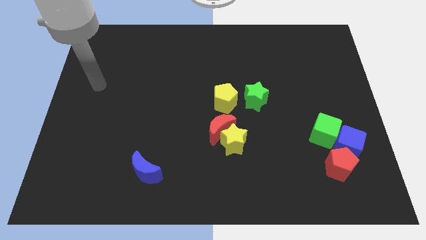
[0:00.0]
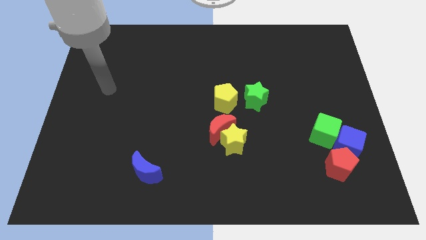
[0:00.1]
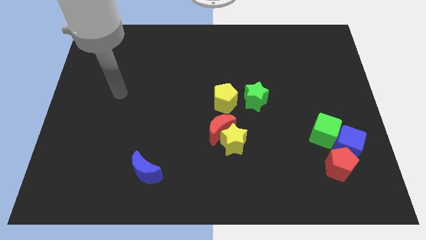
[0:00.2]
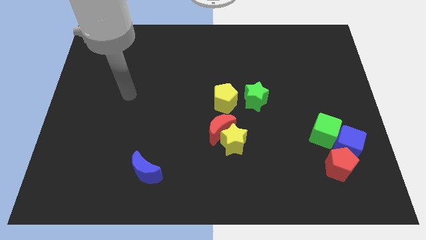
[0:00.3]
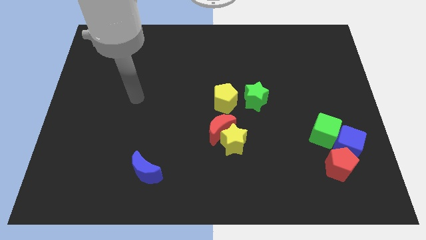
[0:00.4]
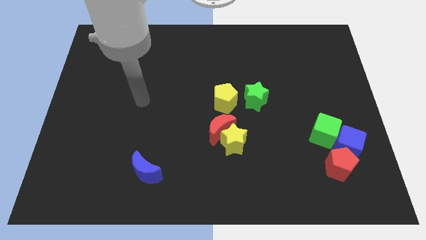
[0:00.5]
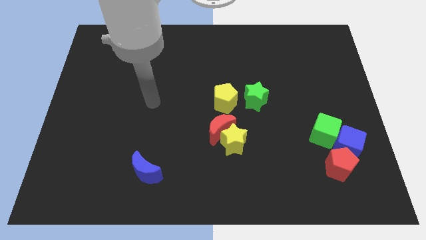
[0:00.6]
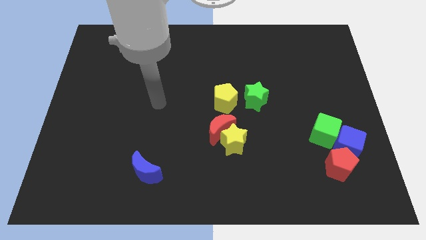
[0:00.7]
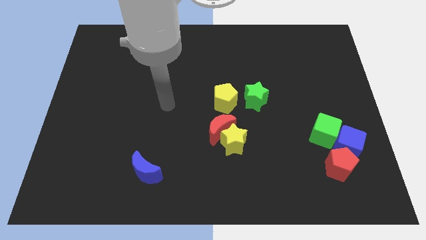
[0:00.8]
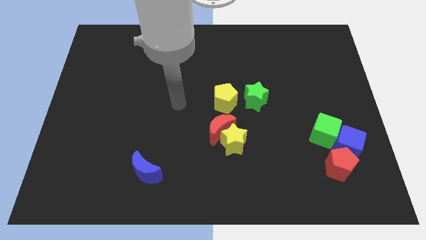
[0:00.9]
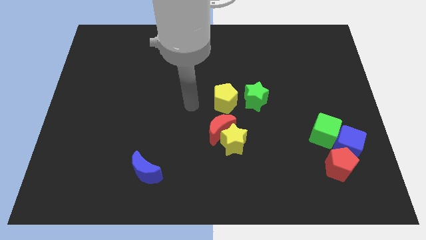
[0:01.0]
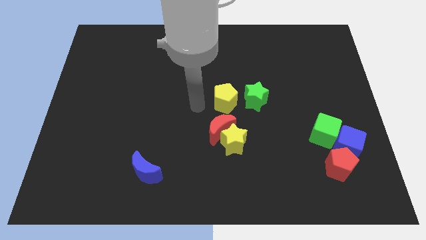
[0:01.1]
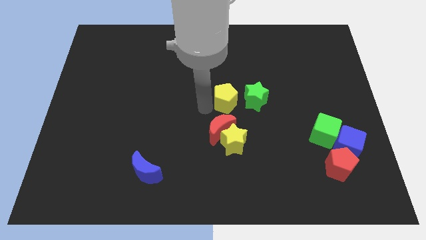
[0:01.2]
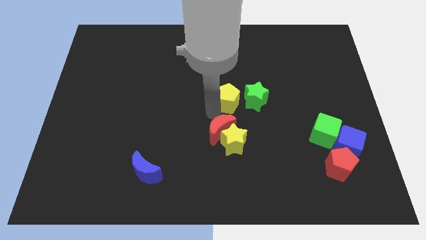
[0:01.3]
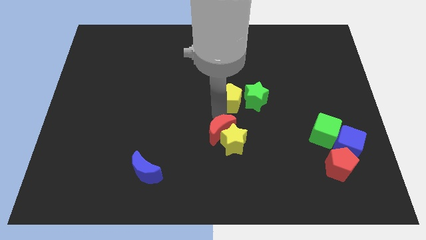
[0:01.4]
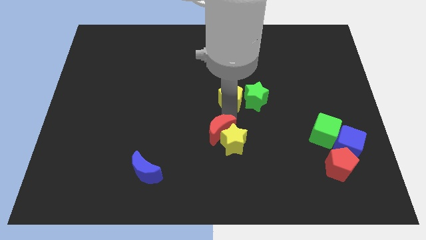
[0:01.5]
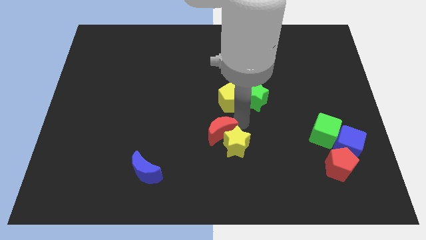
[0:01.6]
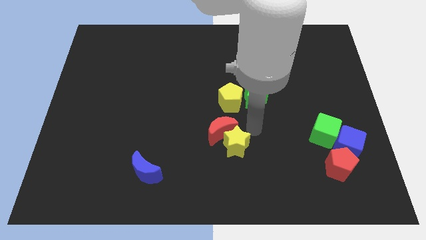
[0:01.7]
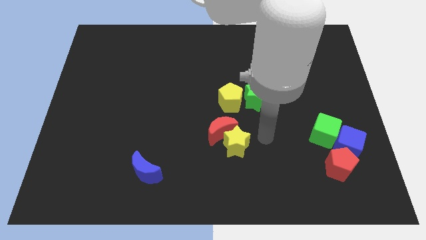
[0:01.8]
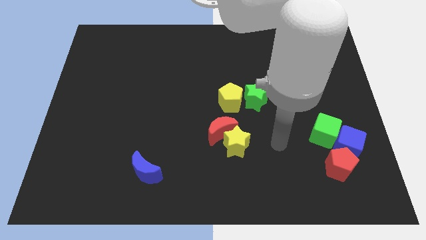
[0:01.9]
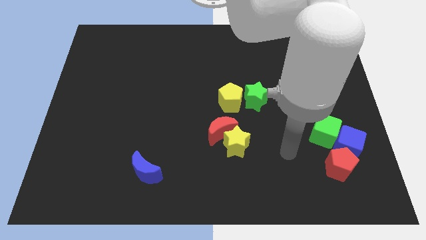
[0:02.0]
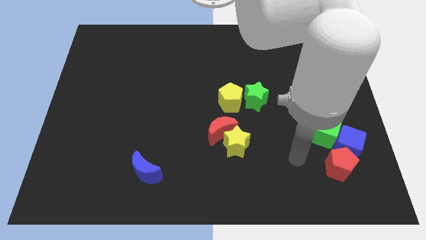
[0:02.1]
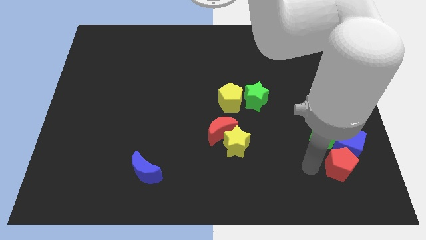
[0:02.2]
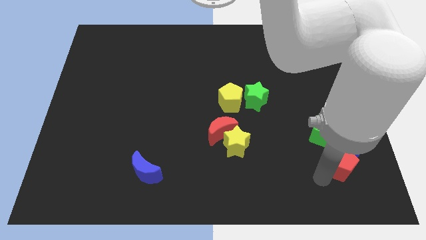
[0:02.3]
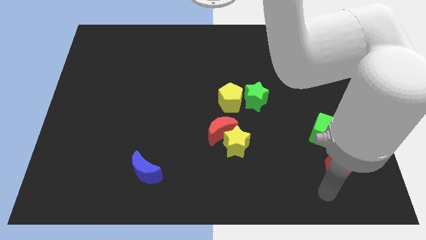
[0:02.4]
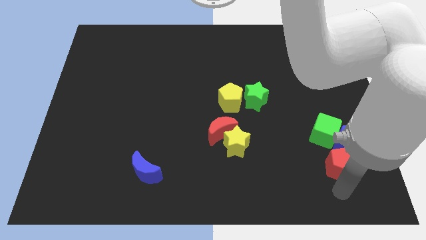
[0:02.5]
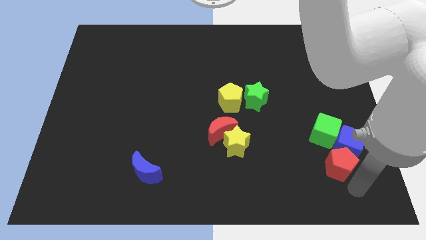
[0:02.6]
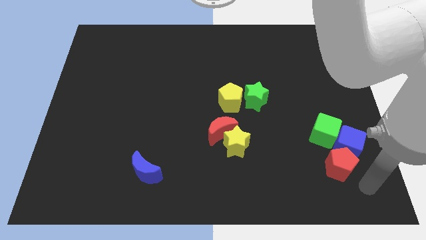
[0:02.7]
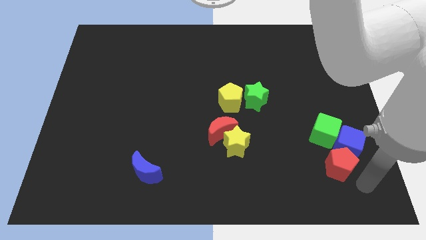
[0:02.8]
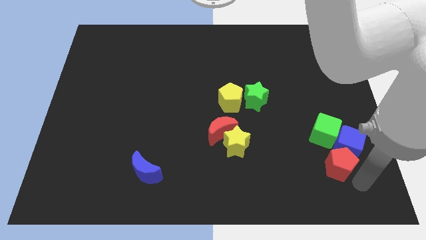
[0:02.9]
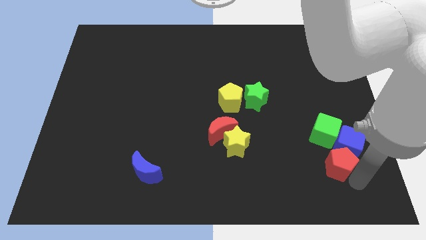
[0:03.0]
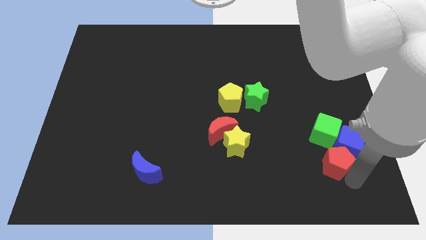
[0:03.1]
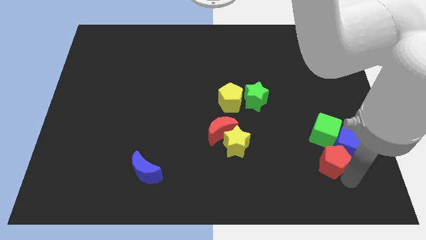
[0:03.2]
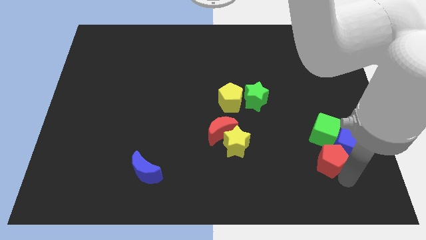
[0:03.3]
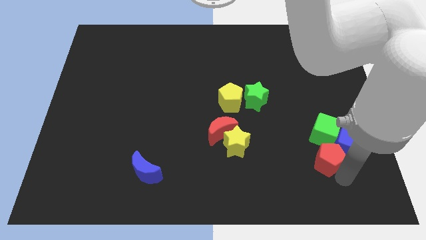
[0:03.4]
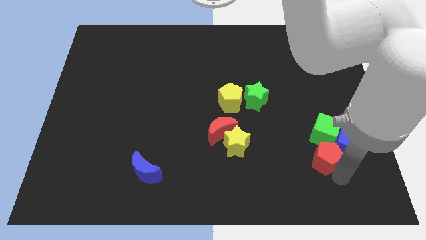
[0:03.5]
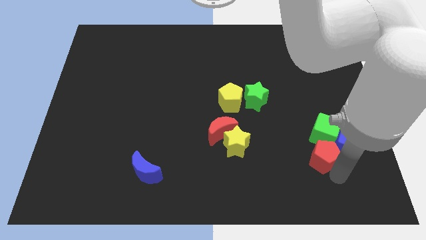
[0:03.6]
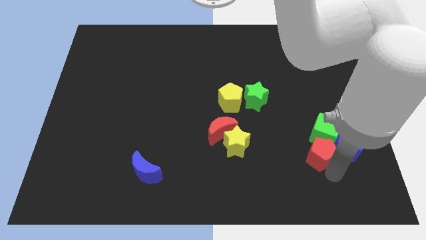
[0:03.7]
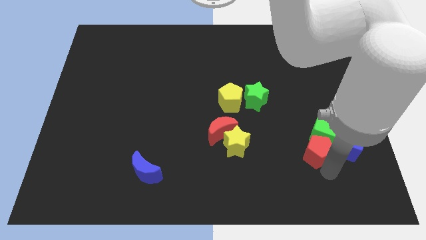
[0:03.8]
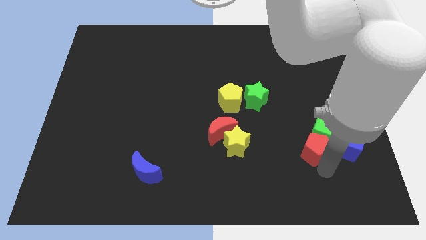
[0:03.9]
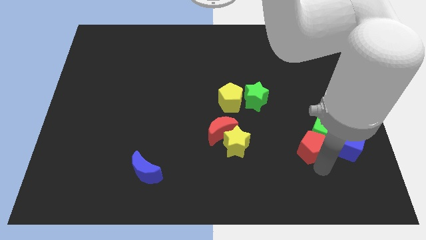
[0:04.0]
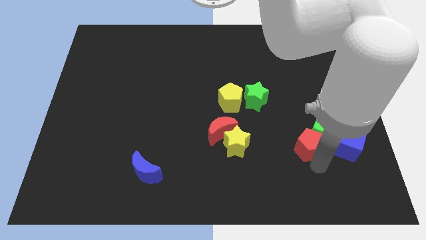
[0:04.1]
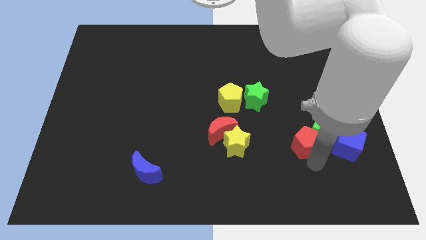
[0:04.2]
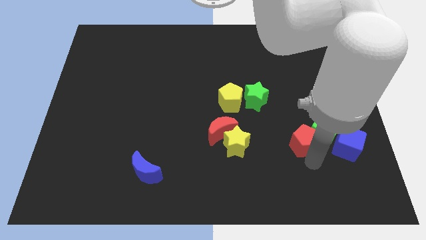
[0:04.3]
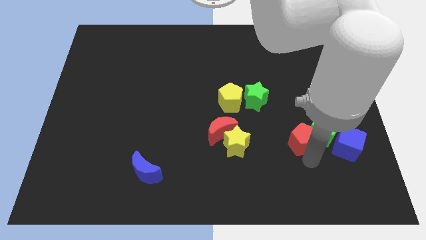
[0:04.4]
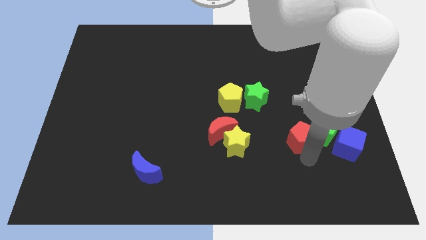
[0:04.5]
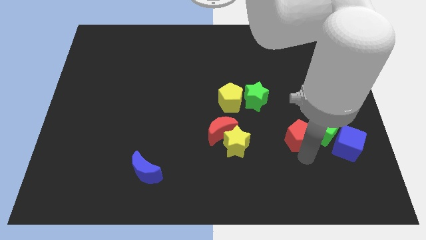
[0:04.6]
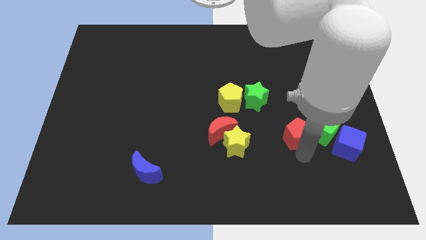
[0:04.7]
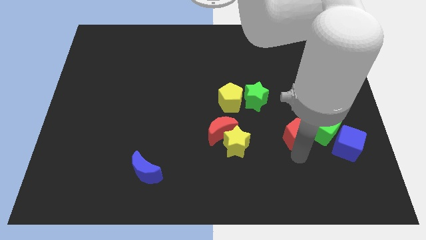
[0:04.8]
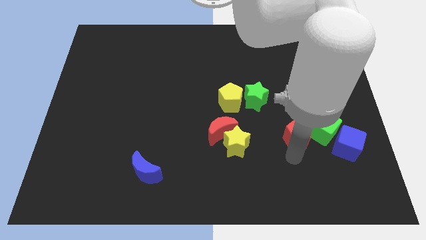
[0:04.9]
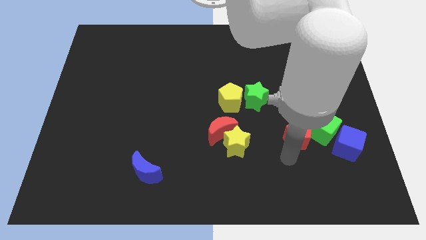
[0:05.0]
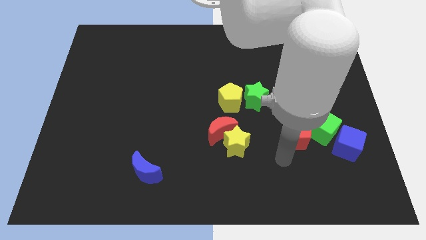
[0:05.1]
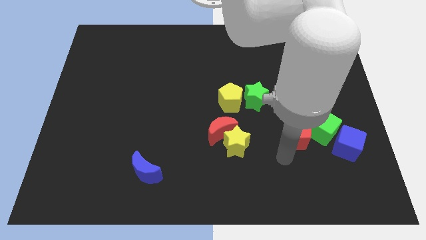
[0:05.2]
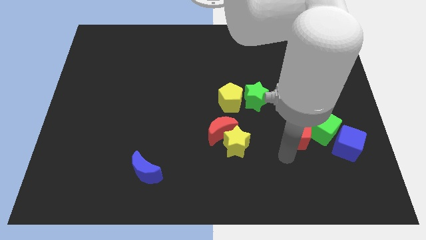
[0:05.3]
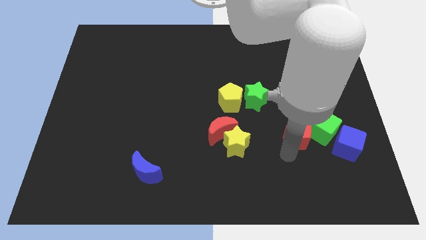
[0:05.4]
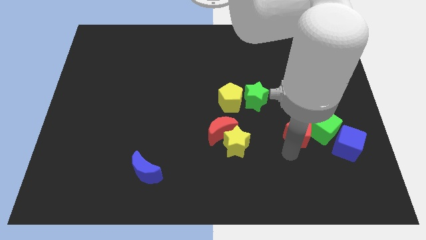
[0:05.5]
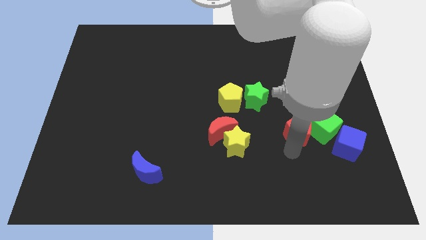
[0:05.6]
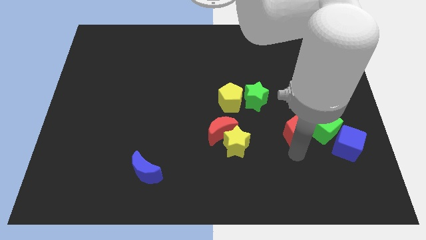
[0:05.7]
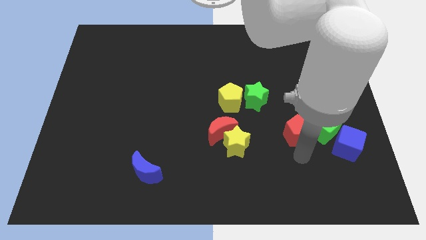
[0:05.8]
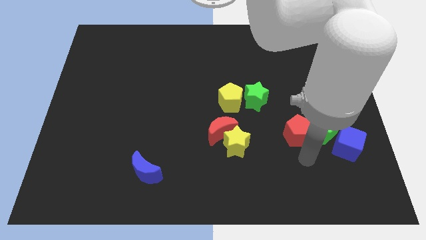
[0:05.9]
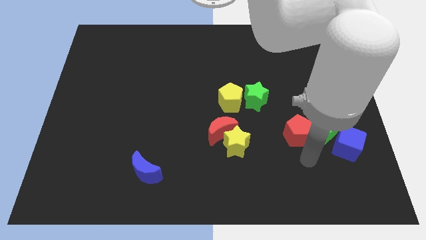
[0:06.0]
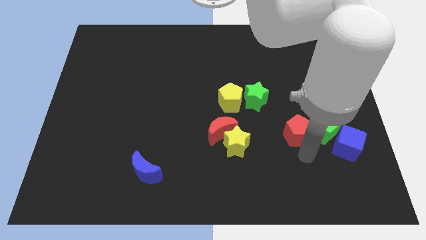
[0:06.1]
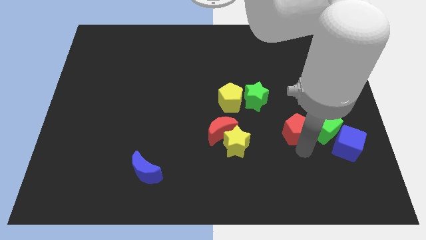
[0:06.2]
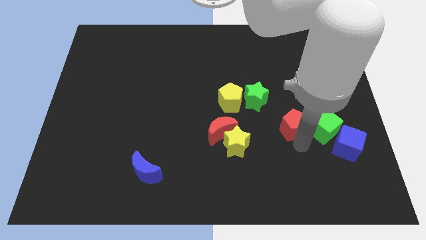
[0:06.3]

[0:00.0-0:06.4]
slightly push the red pentagon upwards

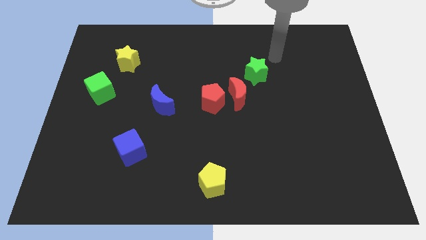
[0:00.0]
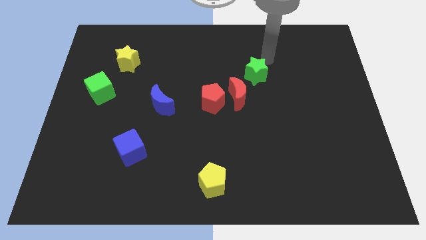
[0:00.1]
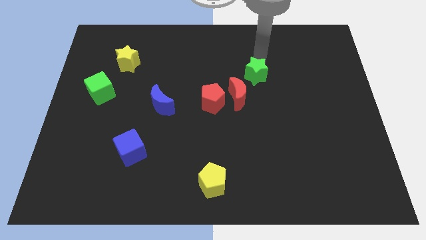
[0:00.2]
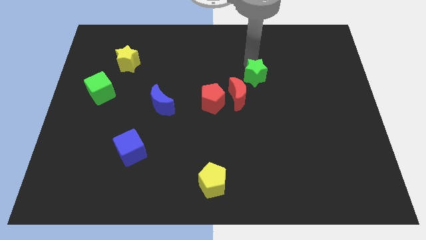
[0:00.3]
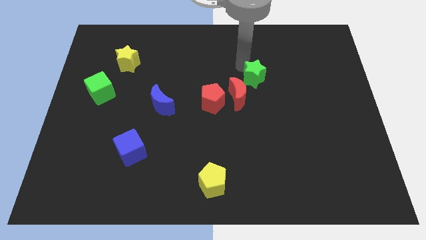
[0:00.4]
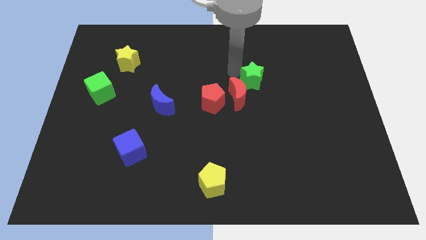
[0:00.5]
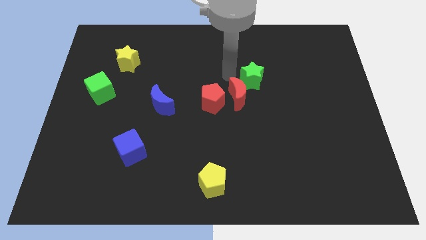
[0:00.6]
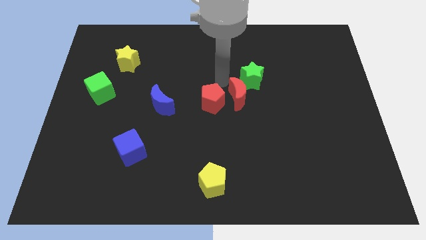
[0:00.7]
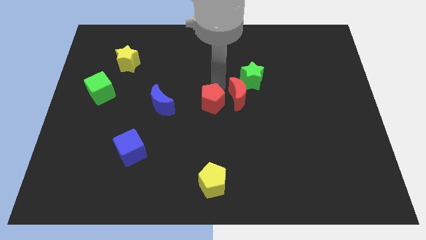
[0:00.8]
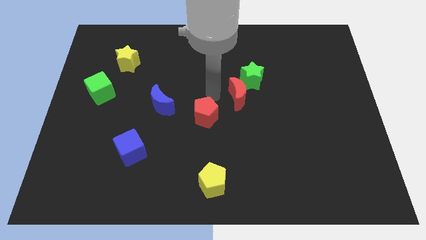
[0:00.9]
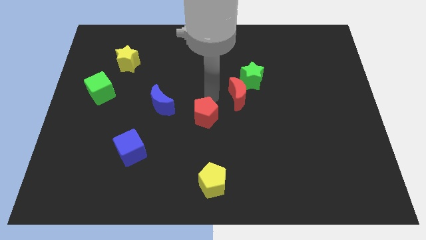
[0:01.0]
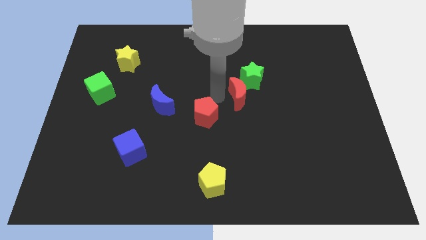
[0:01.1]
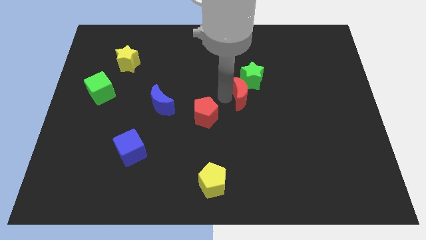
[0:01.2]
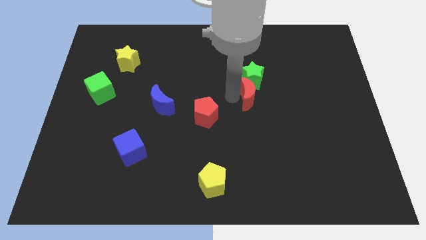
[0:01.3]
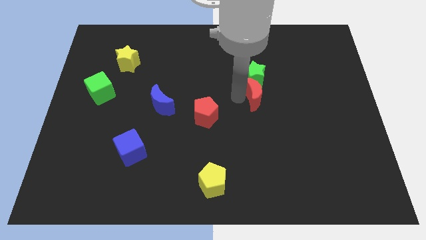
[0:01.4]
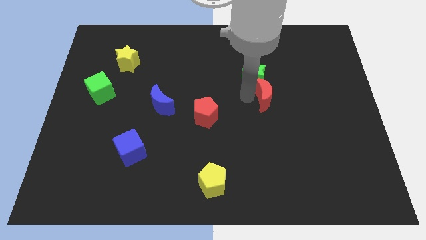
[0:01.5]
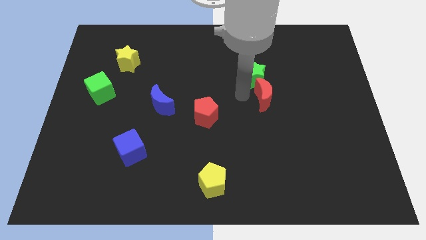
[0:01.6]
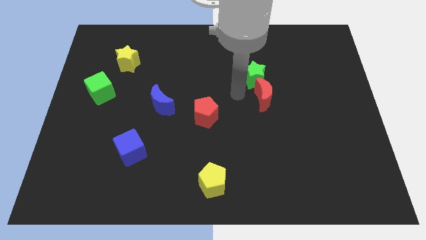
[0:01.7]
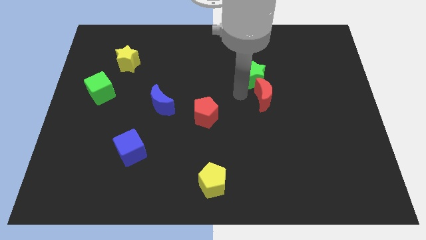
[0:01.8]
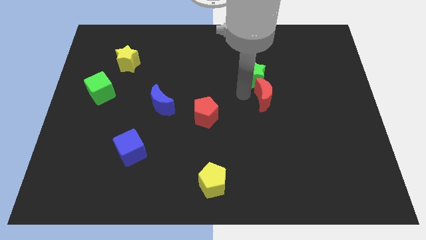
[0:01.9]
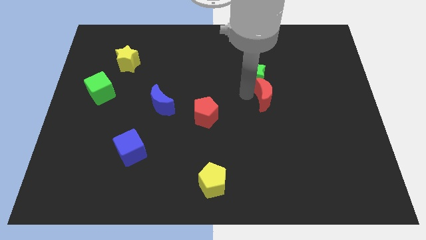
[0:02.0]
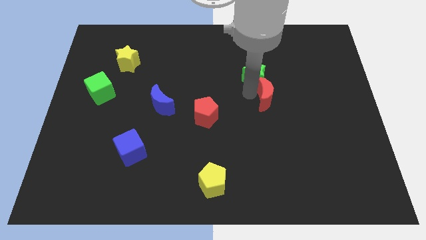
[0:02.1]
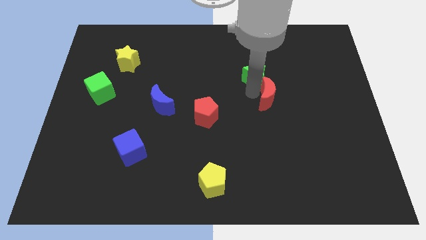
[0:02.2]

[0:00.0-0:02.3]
move the red moon to the right a little
